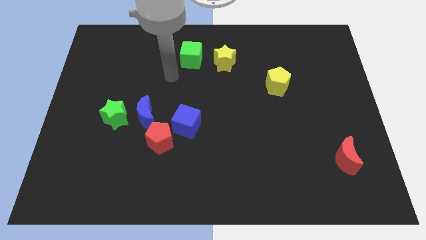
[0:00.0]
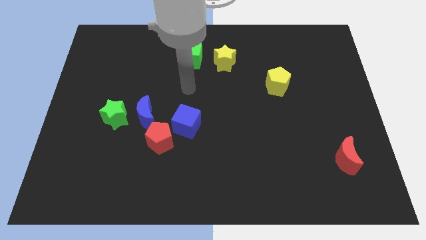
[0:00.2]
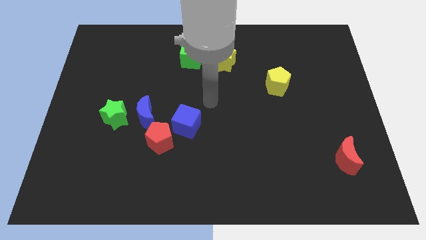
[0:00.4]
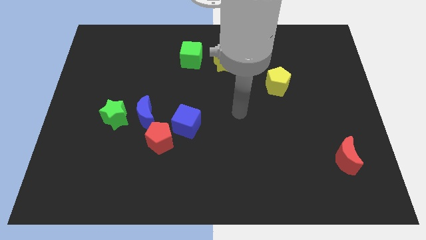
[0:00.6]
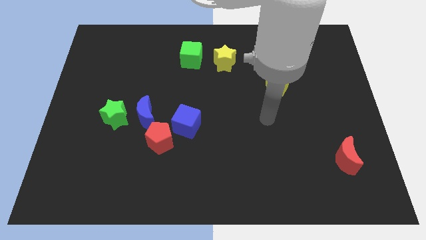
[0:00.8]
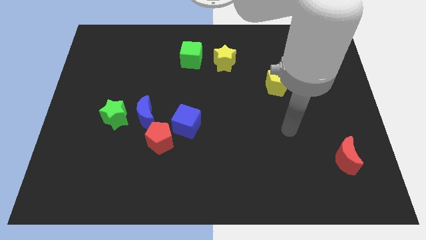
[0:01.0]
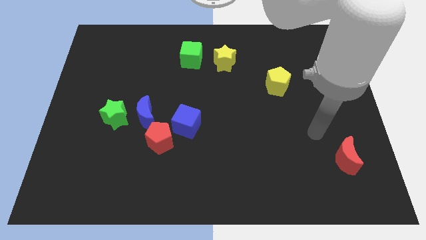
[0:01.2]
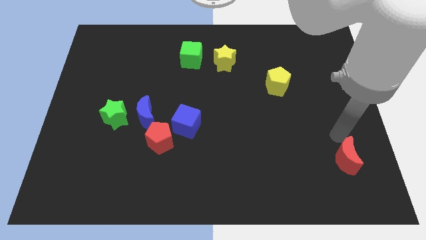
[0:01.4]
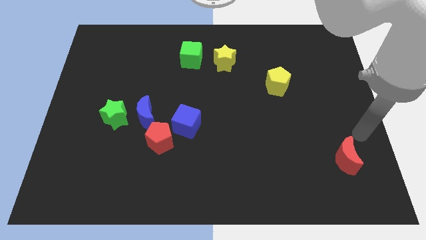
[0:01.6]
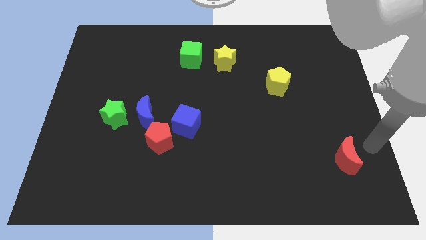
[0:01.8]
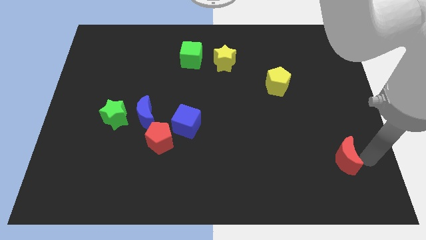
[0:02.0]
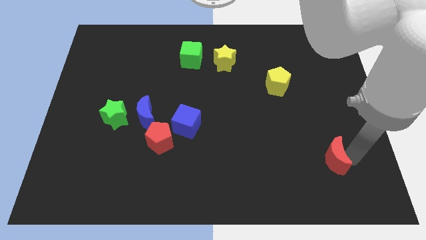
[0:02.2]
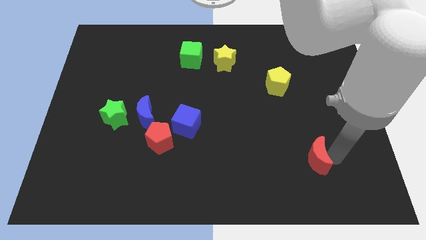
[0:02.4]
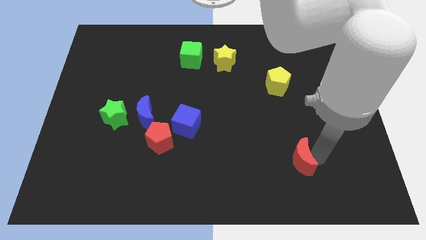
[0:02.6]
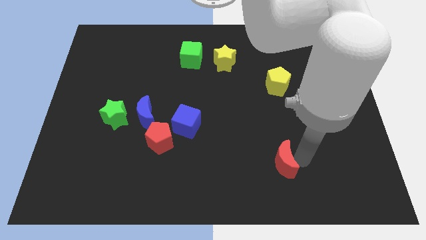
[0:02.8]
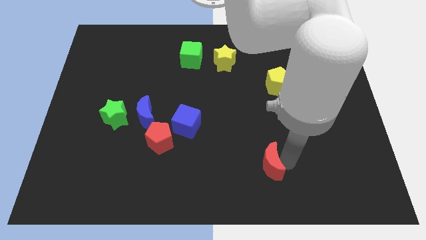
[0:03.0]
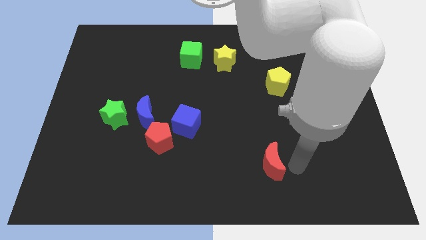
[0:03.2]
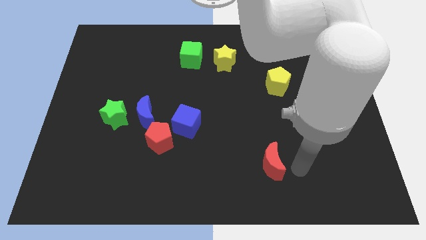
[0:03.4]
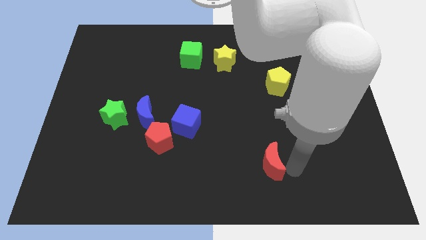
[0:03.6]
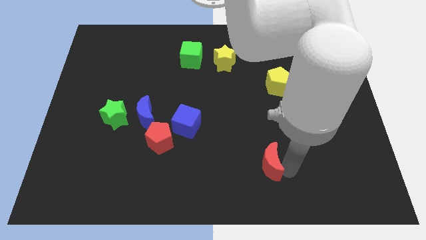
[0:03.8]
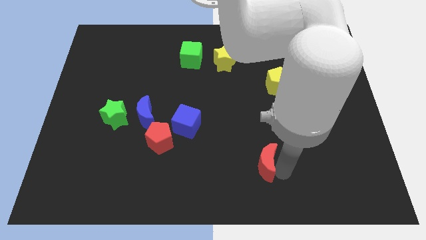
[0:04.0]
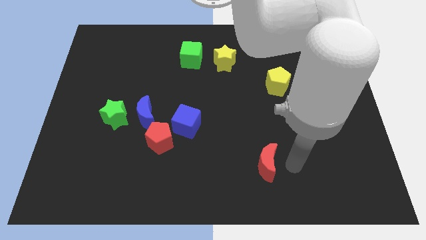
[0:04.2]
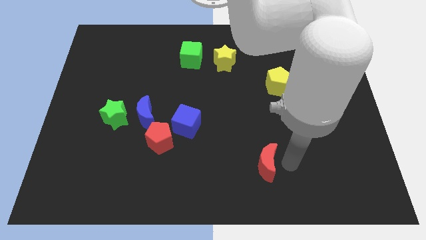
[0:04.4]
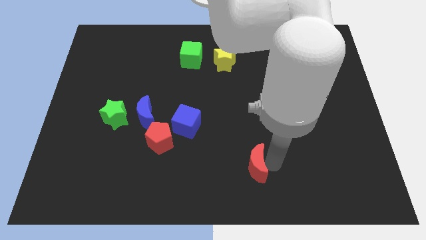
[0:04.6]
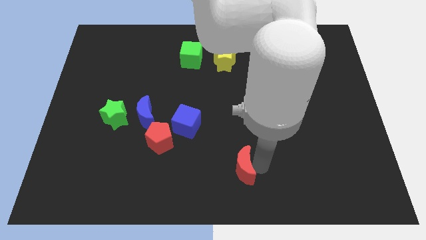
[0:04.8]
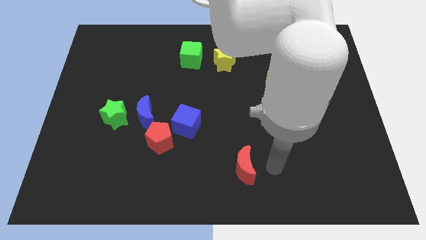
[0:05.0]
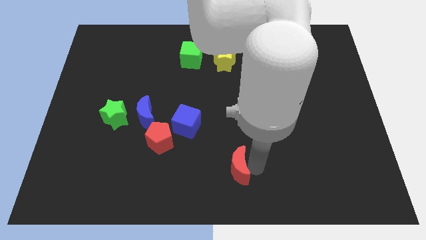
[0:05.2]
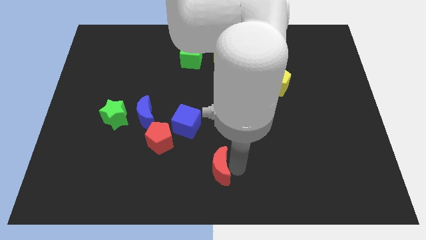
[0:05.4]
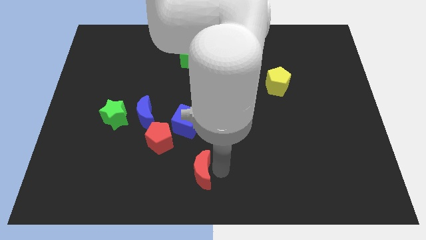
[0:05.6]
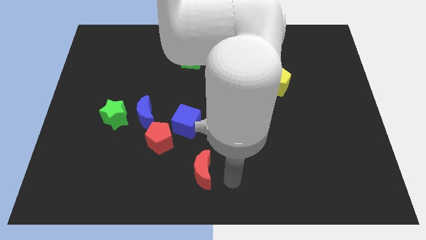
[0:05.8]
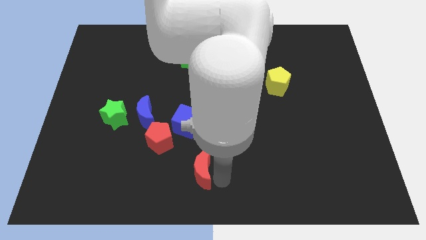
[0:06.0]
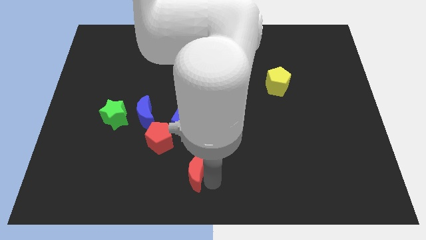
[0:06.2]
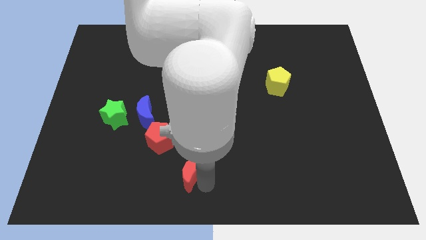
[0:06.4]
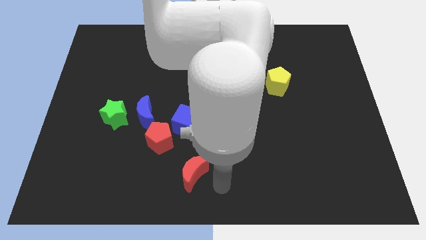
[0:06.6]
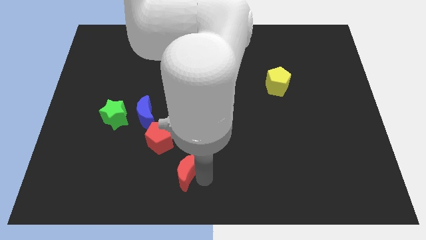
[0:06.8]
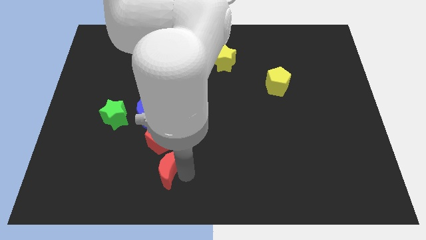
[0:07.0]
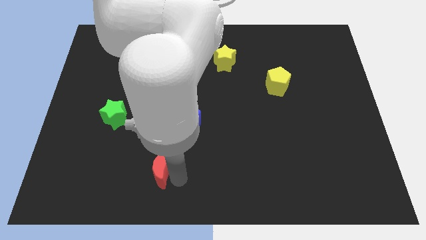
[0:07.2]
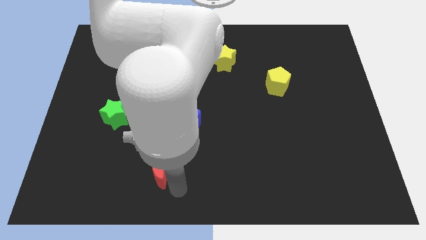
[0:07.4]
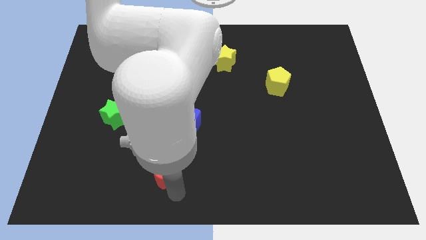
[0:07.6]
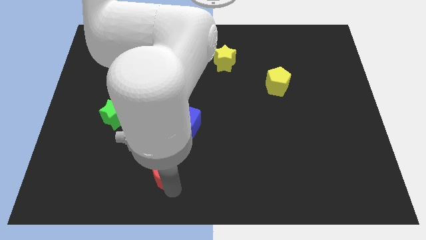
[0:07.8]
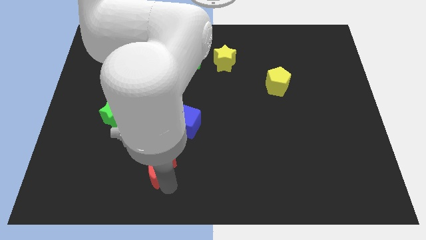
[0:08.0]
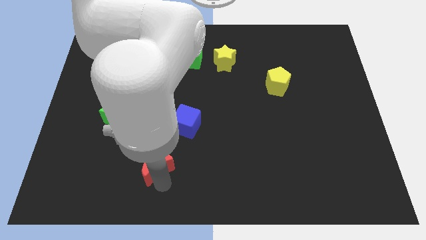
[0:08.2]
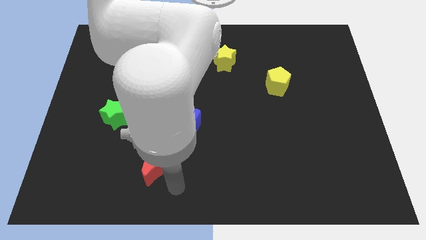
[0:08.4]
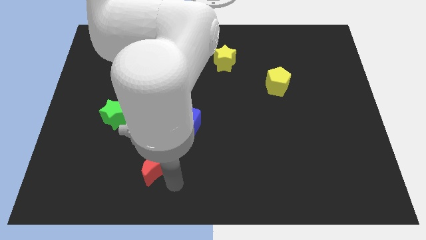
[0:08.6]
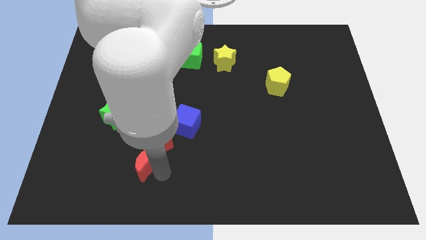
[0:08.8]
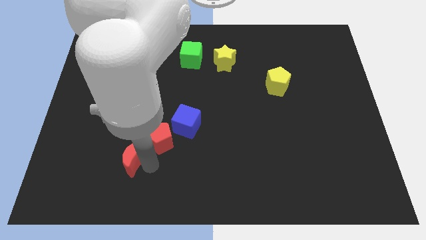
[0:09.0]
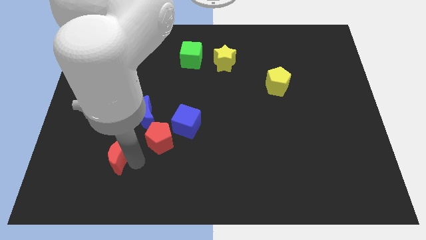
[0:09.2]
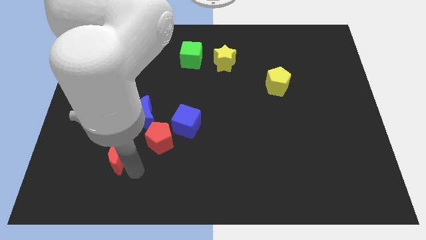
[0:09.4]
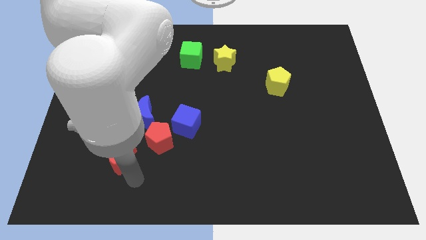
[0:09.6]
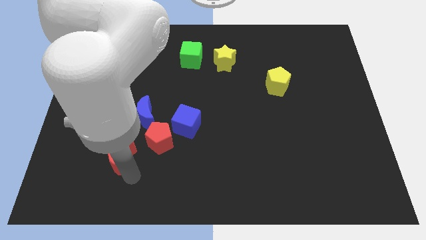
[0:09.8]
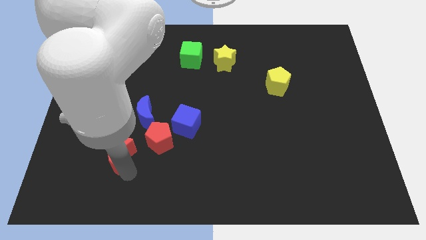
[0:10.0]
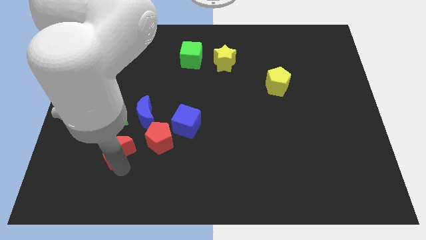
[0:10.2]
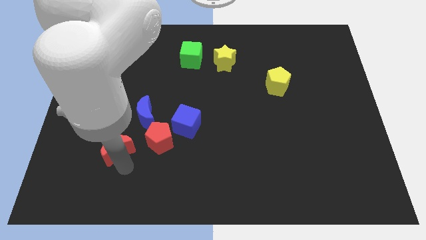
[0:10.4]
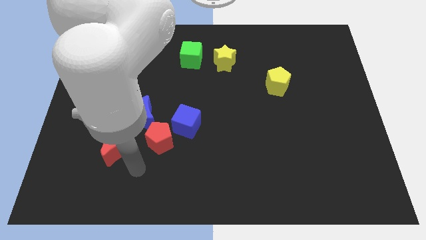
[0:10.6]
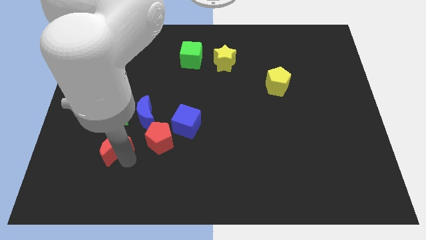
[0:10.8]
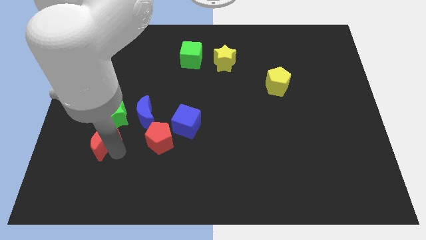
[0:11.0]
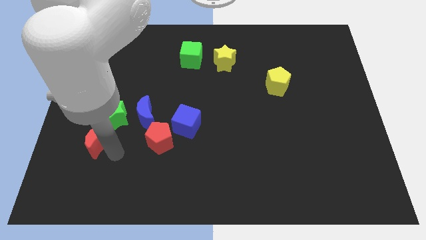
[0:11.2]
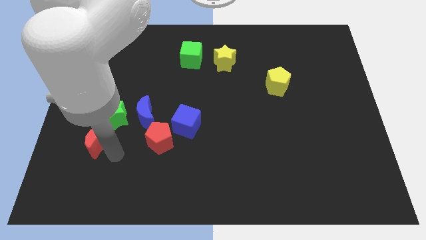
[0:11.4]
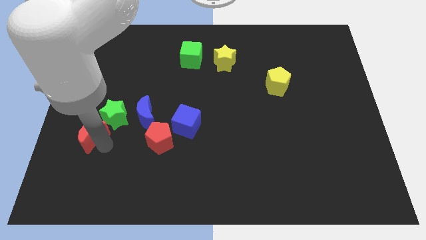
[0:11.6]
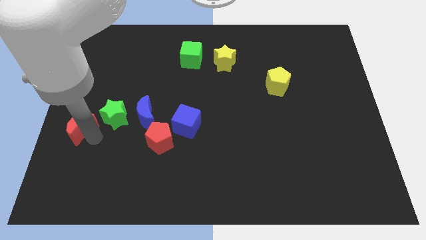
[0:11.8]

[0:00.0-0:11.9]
push the red moon to the left side
